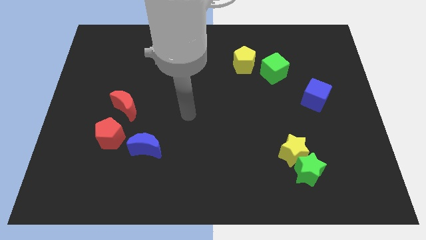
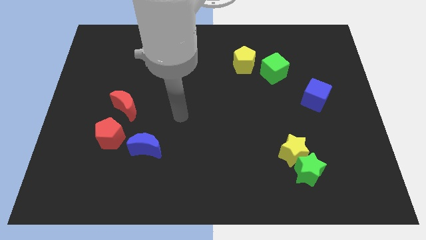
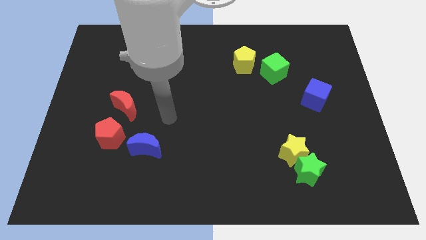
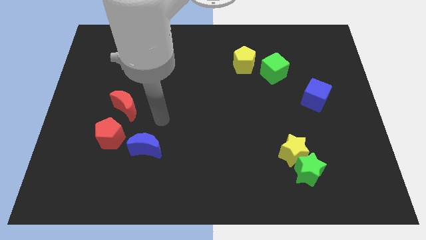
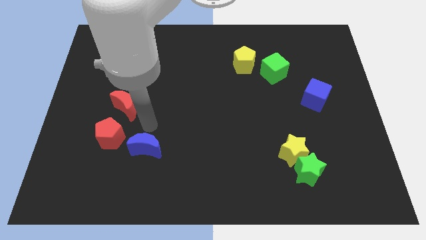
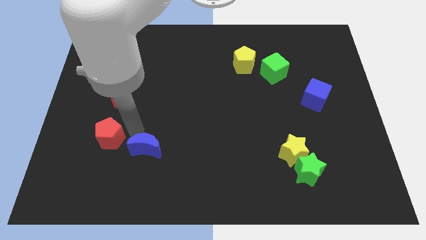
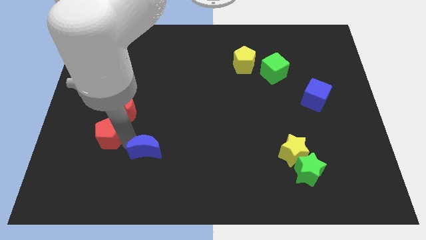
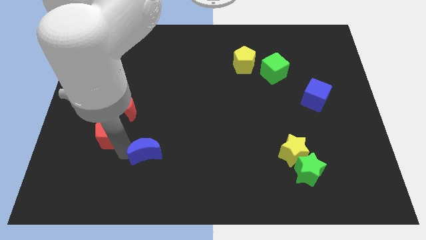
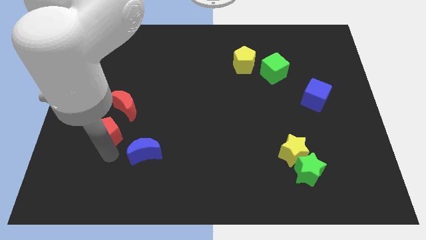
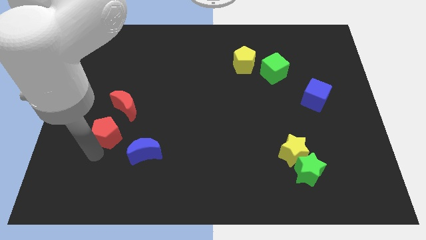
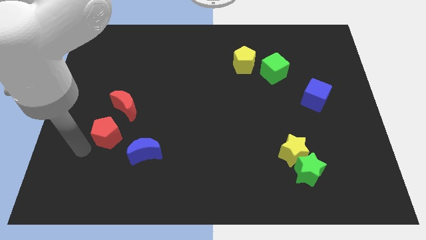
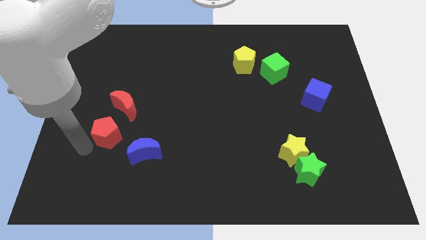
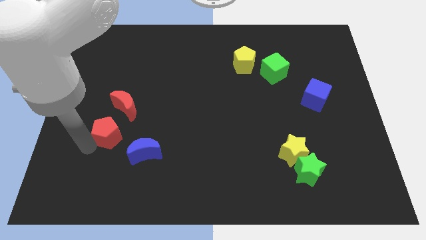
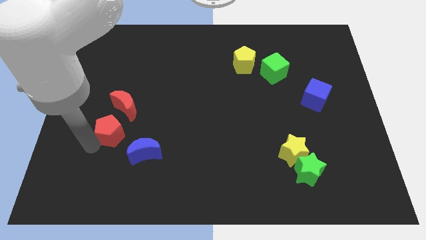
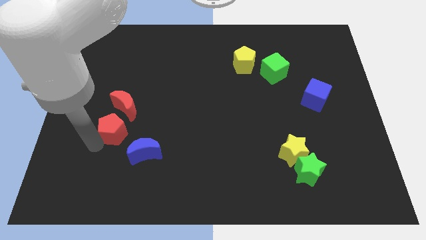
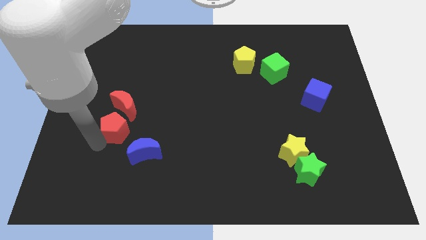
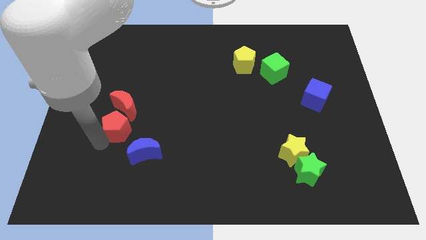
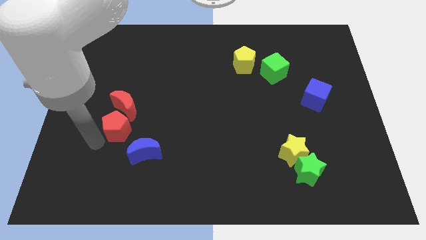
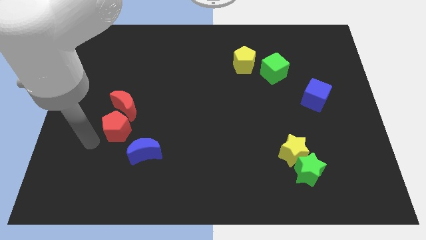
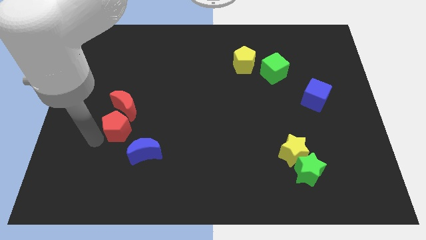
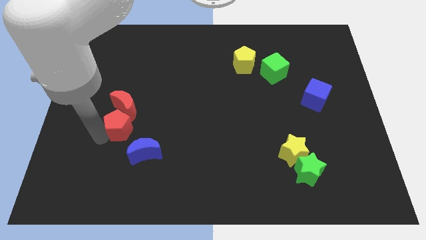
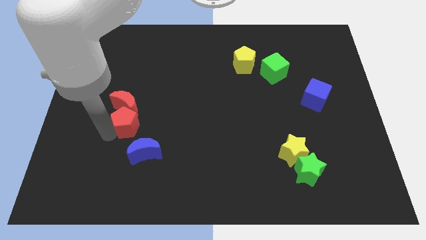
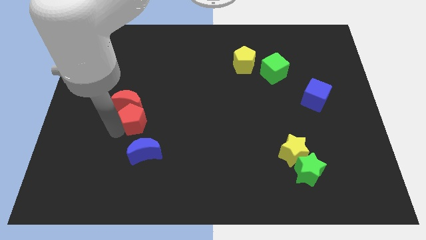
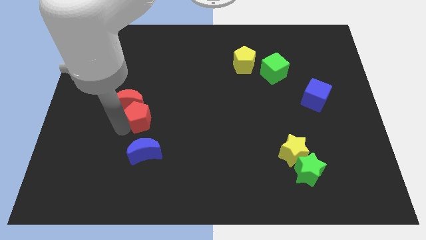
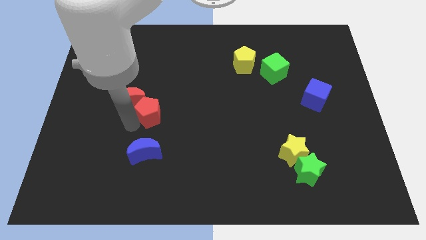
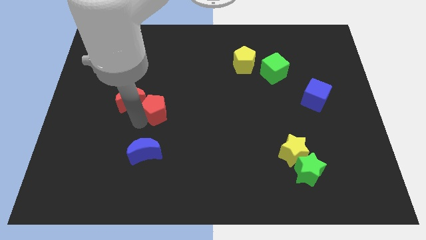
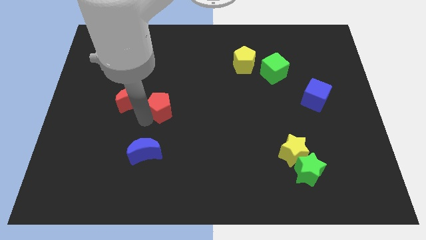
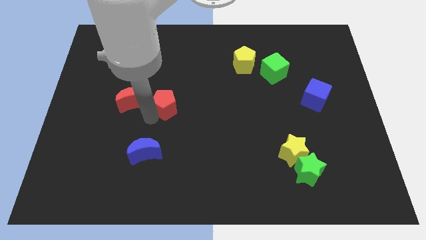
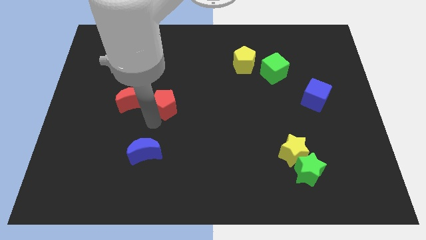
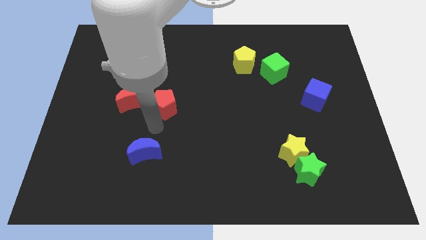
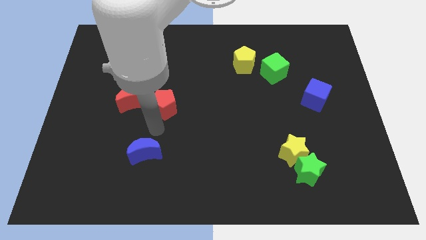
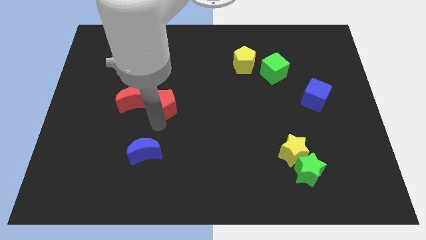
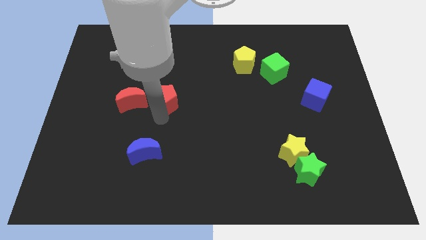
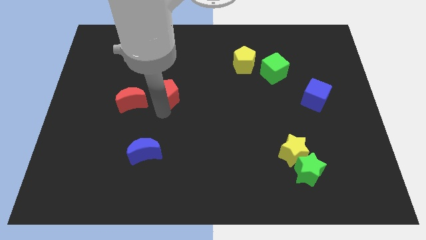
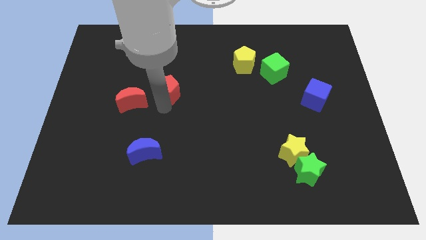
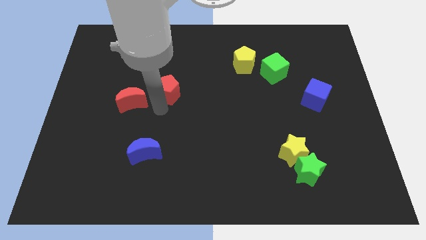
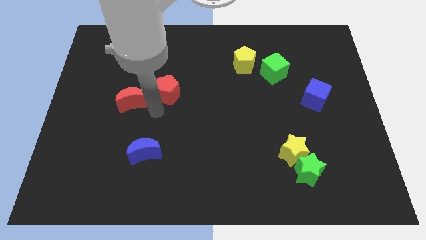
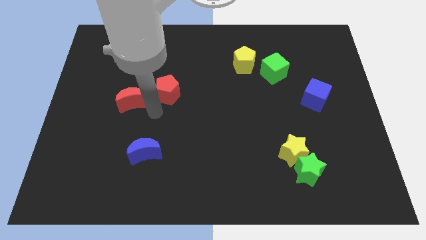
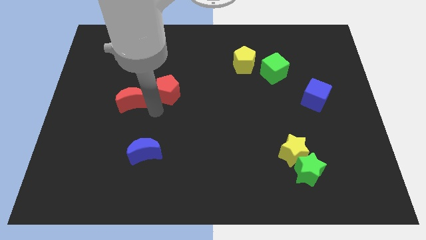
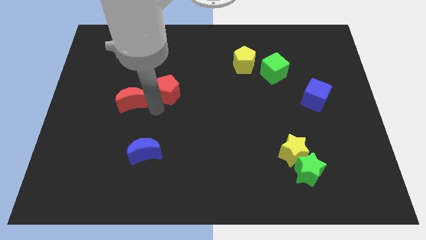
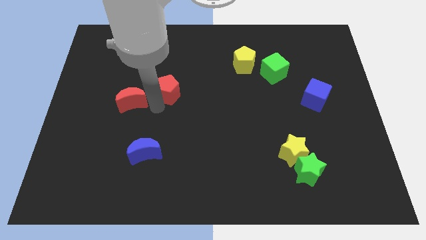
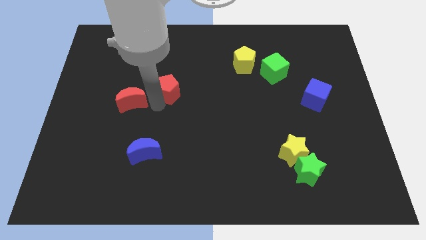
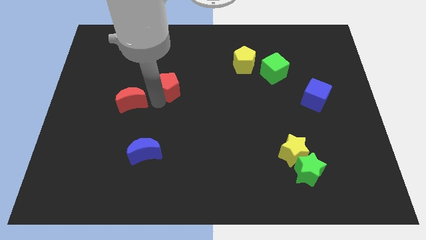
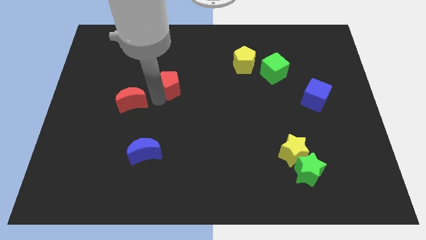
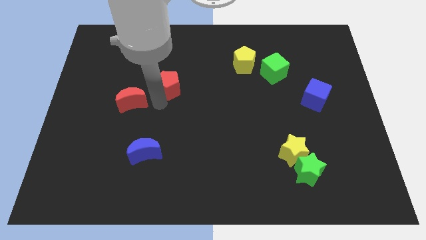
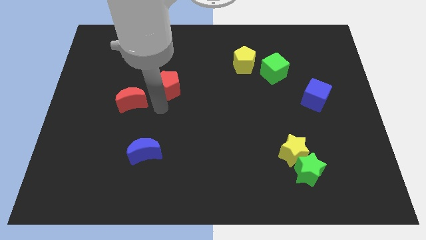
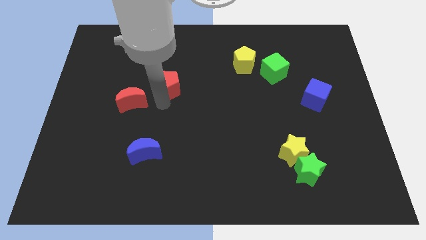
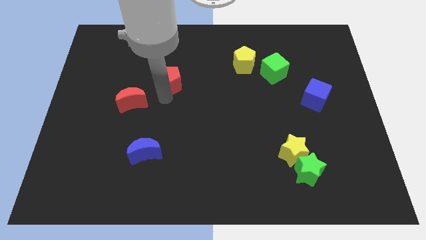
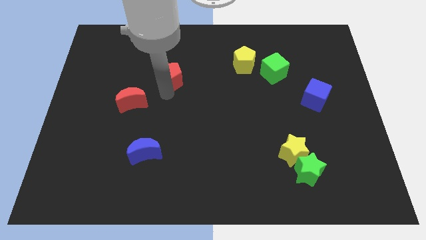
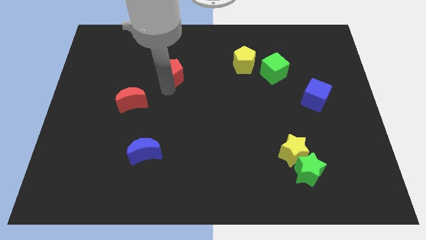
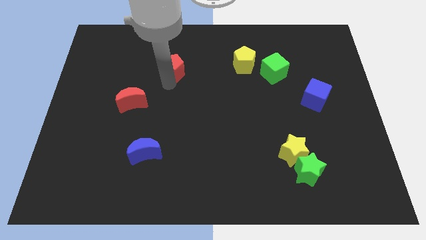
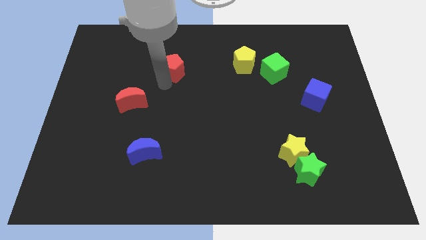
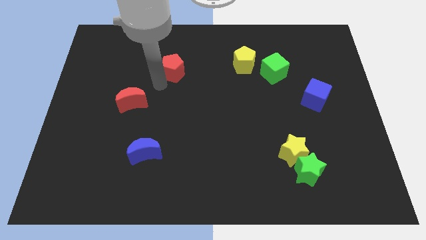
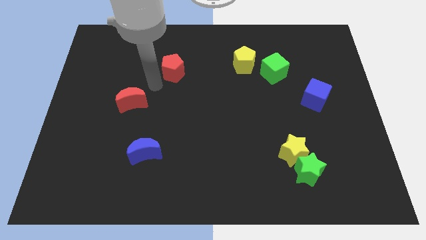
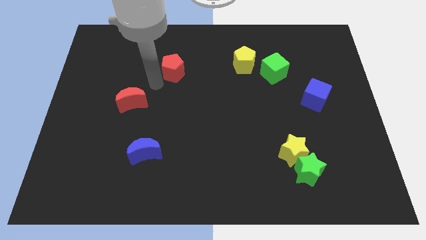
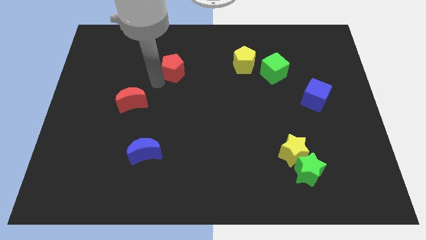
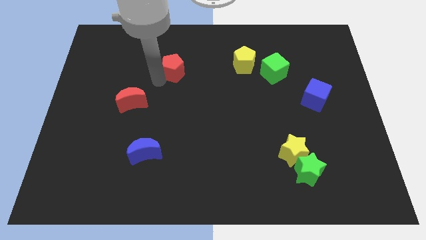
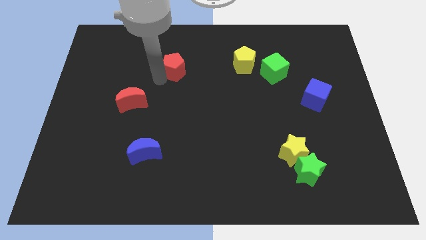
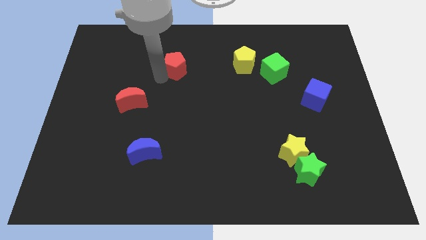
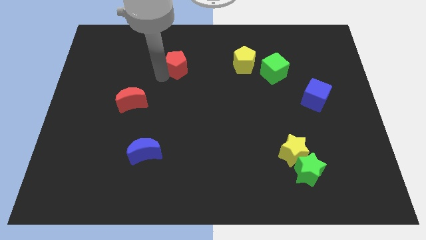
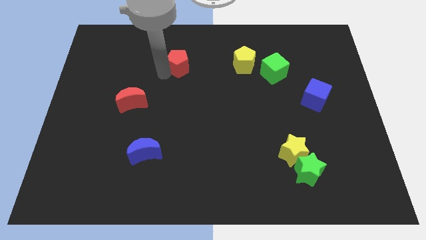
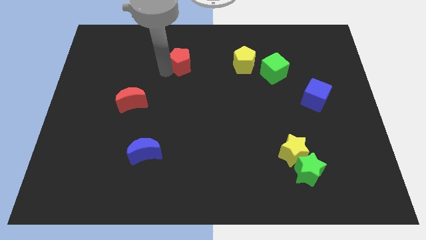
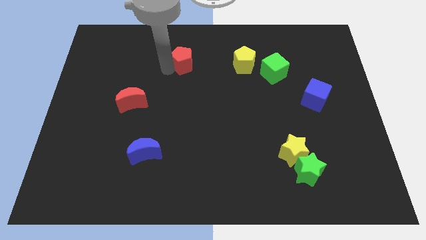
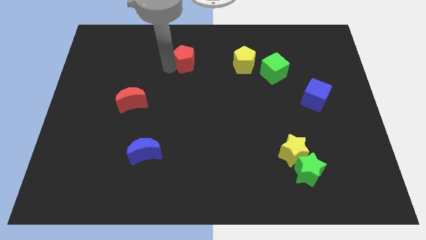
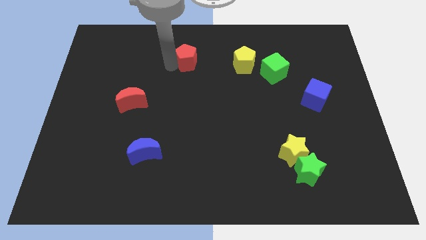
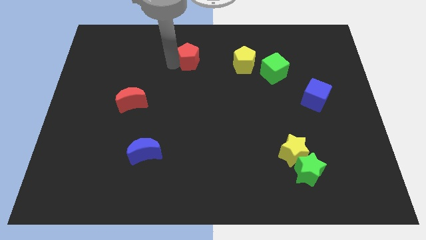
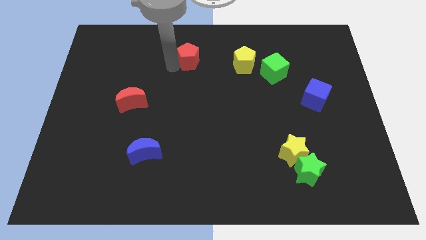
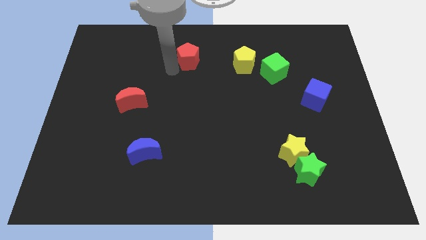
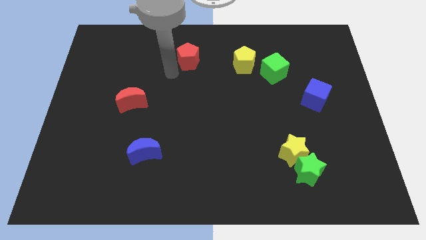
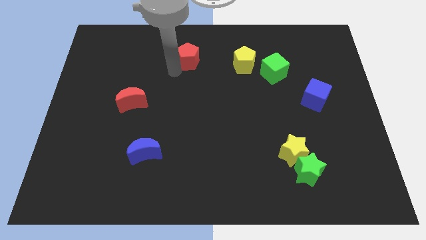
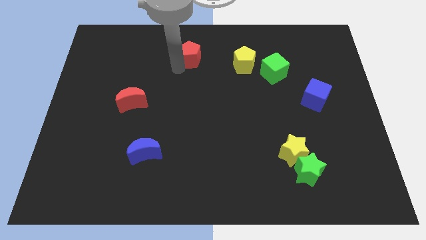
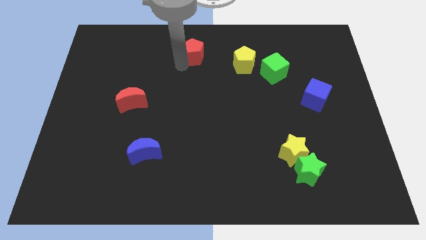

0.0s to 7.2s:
put the red pentagon to the top
